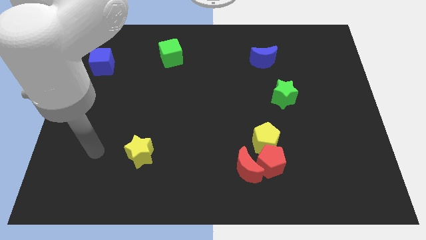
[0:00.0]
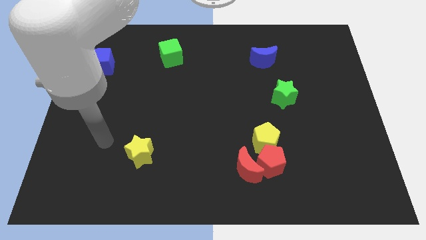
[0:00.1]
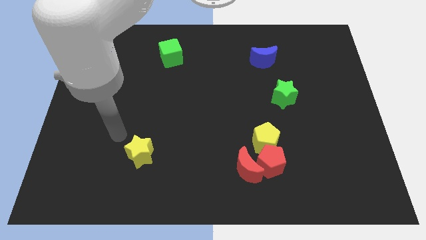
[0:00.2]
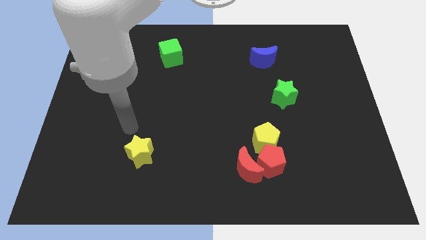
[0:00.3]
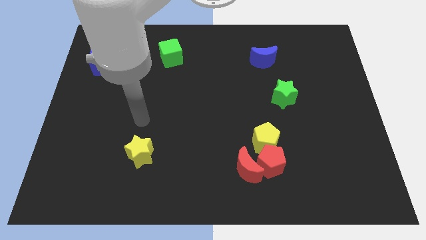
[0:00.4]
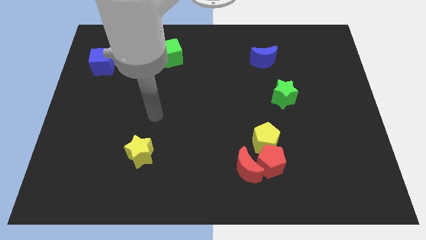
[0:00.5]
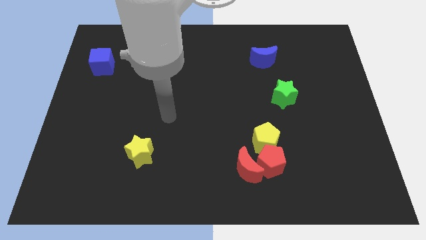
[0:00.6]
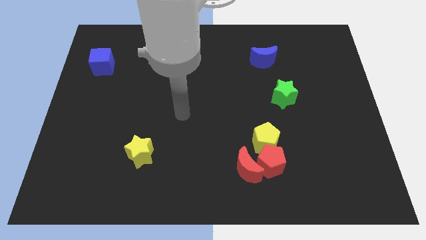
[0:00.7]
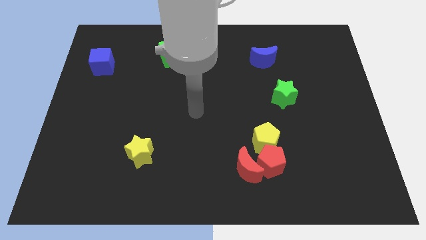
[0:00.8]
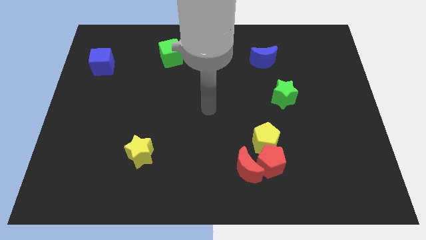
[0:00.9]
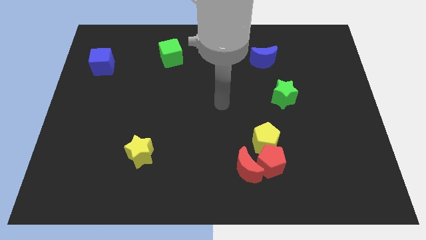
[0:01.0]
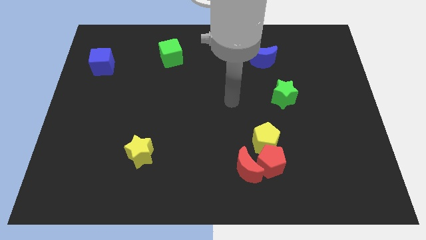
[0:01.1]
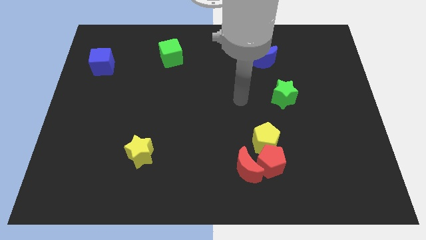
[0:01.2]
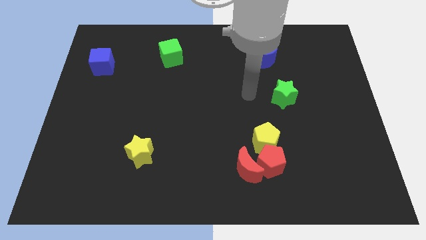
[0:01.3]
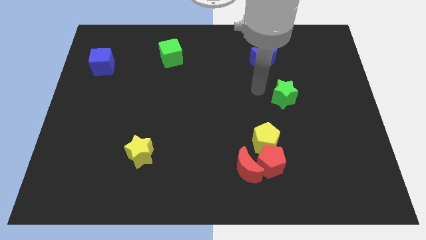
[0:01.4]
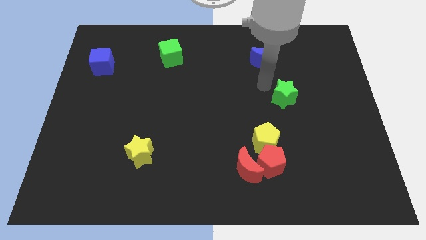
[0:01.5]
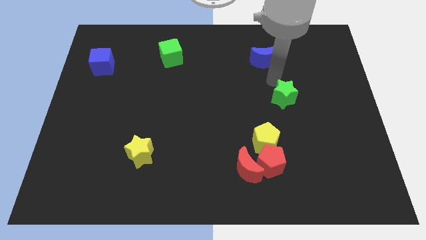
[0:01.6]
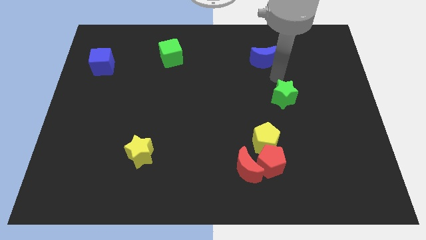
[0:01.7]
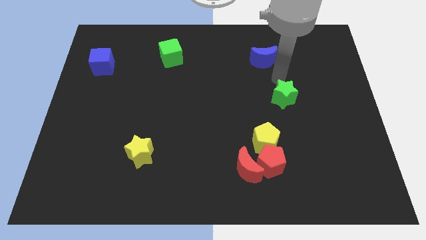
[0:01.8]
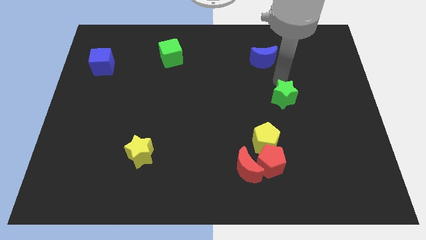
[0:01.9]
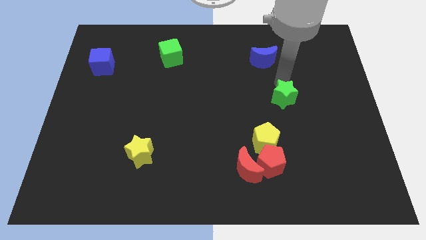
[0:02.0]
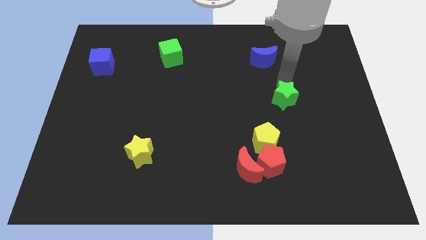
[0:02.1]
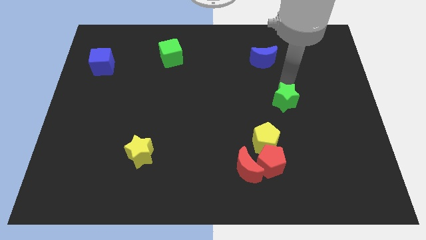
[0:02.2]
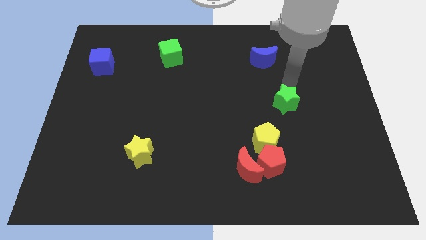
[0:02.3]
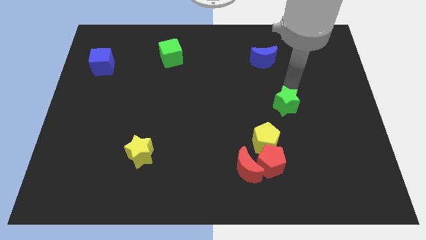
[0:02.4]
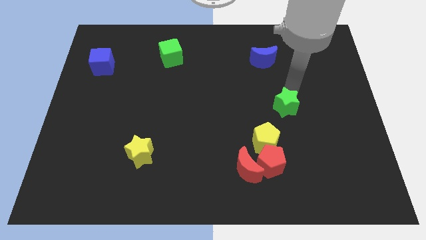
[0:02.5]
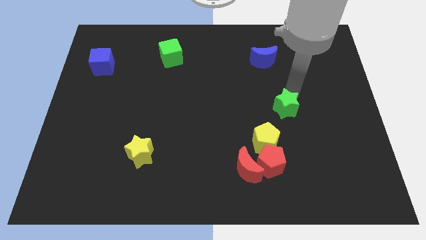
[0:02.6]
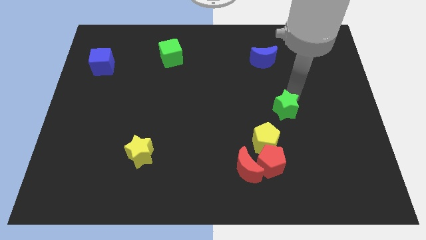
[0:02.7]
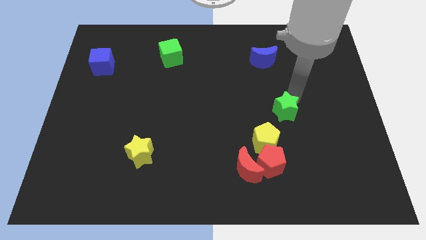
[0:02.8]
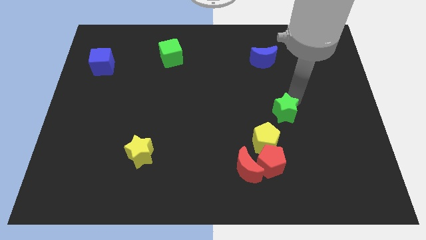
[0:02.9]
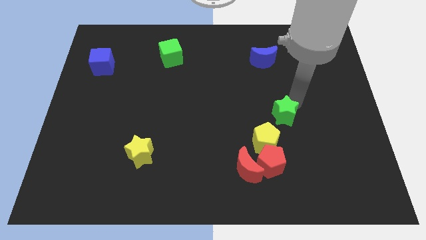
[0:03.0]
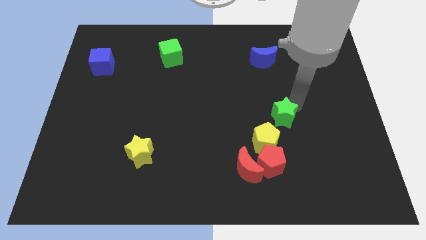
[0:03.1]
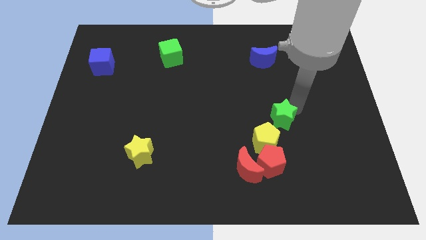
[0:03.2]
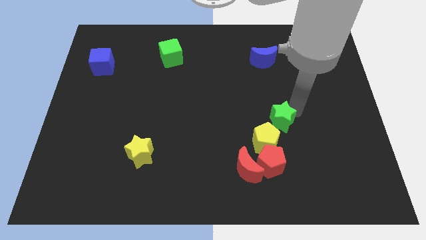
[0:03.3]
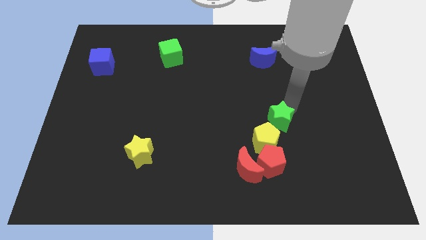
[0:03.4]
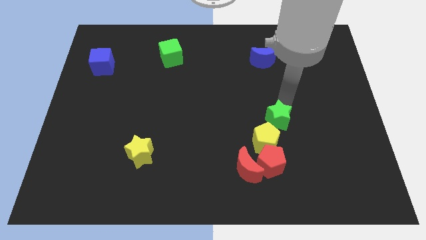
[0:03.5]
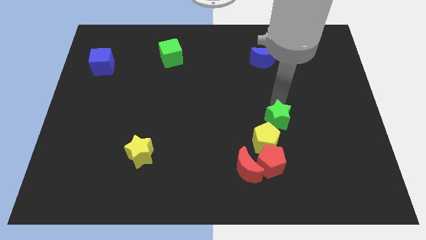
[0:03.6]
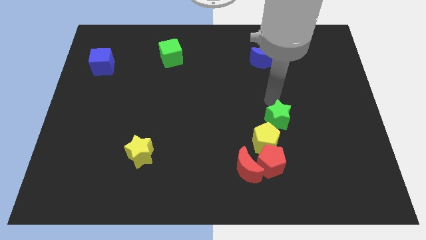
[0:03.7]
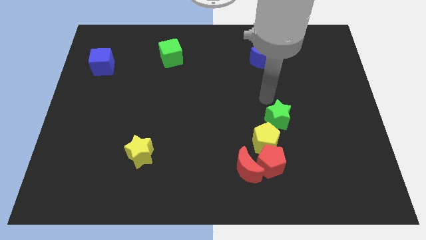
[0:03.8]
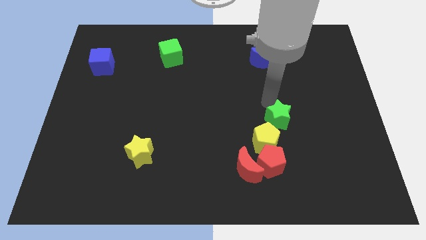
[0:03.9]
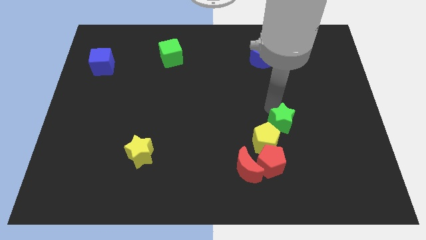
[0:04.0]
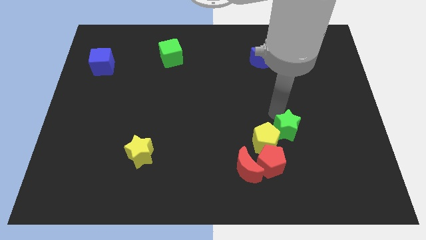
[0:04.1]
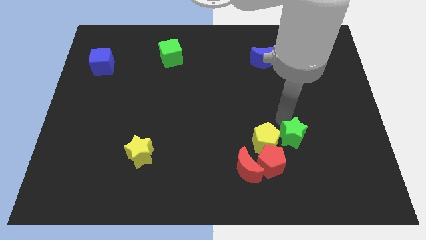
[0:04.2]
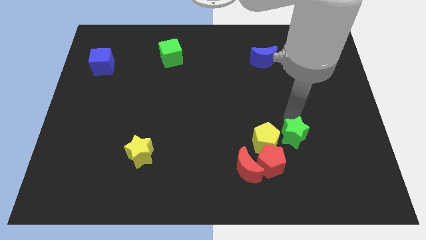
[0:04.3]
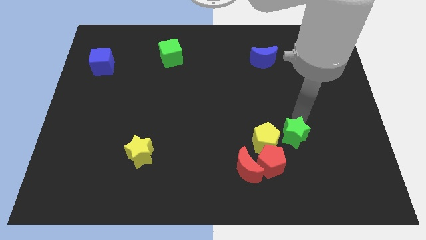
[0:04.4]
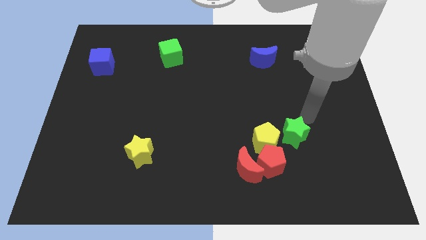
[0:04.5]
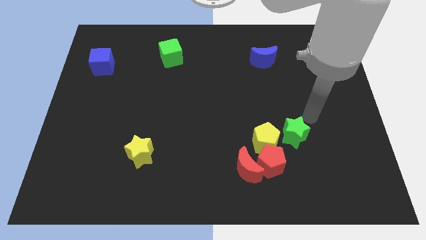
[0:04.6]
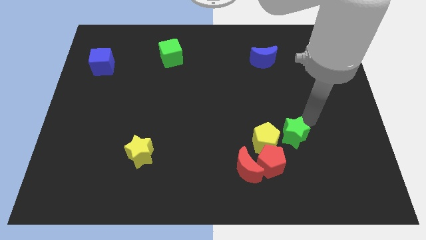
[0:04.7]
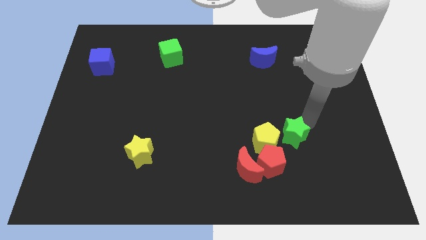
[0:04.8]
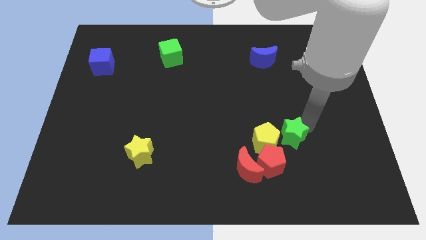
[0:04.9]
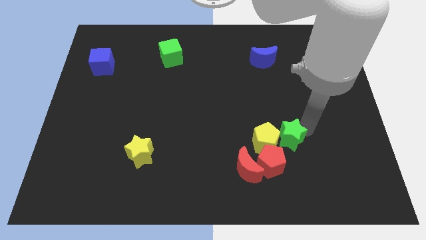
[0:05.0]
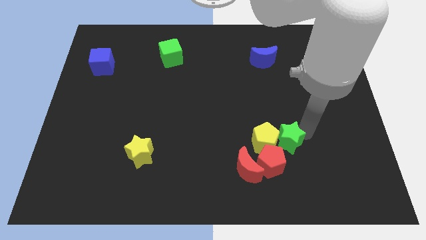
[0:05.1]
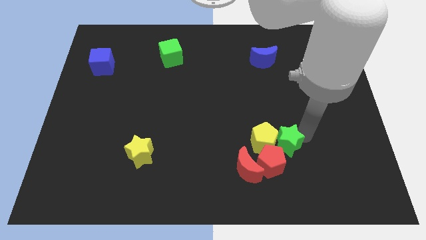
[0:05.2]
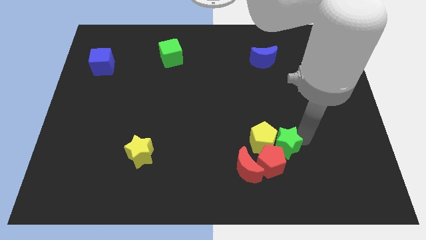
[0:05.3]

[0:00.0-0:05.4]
push the green star close to the red pentagon

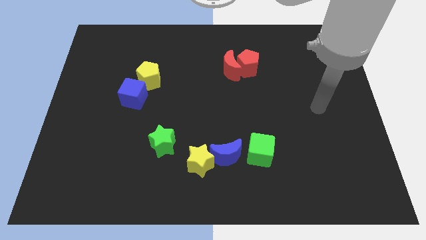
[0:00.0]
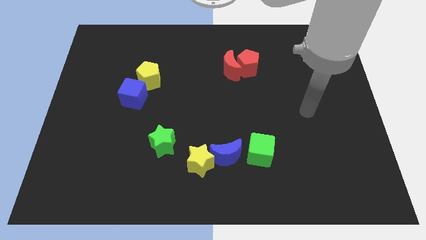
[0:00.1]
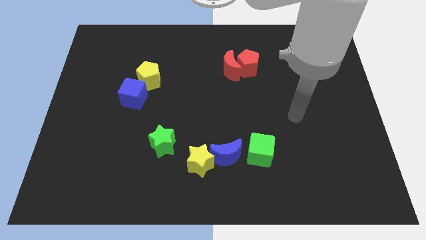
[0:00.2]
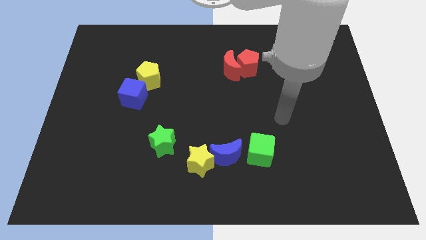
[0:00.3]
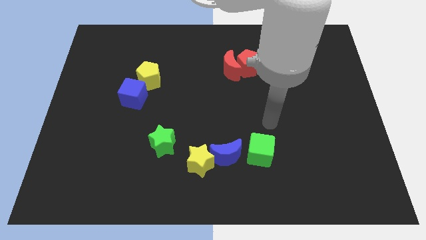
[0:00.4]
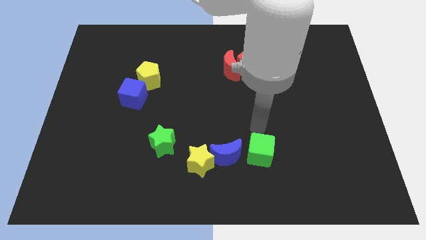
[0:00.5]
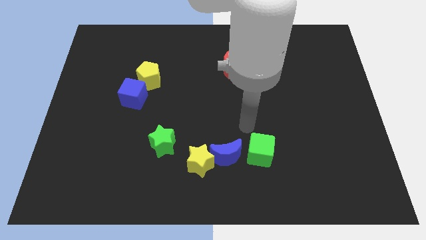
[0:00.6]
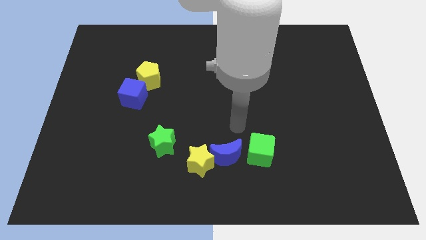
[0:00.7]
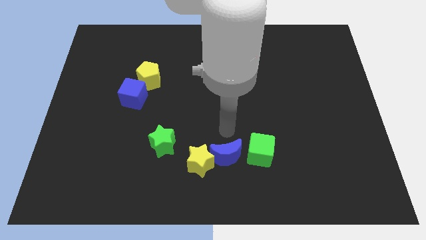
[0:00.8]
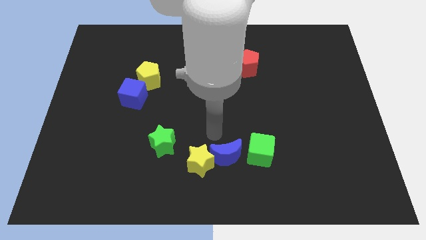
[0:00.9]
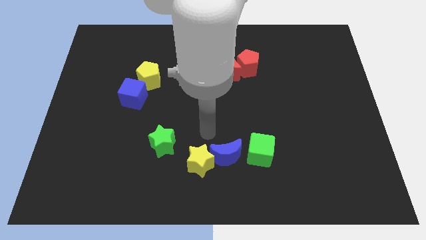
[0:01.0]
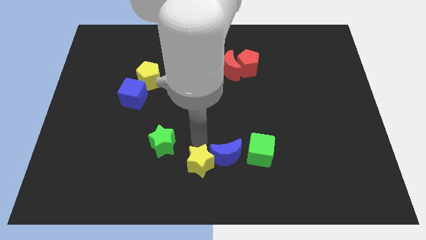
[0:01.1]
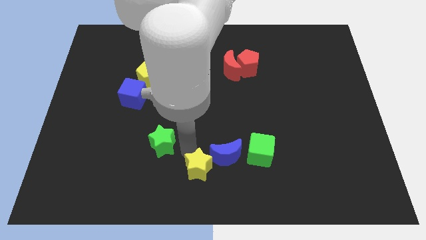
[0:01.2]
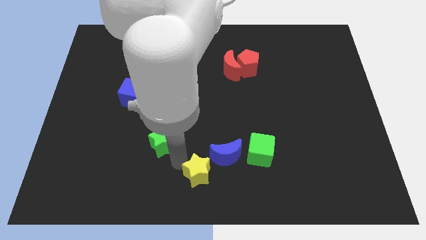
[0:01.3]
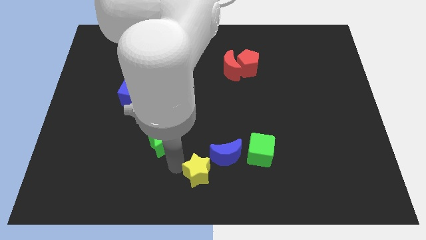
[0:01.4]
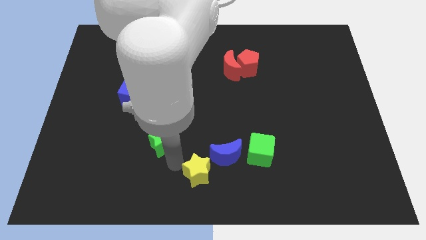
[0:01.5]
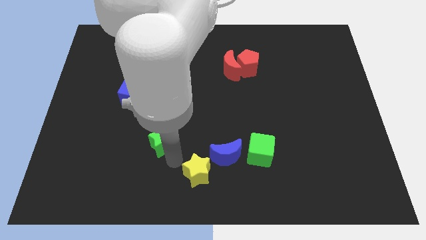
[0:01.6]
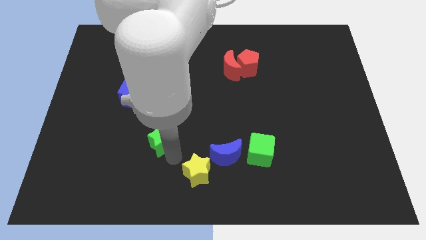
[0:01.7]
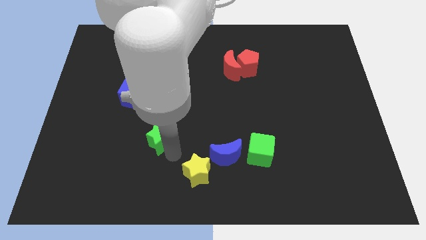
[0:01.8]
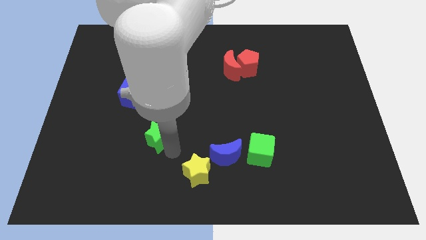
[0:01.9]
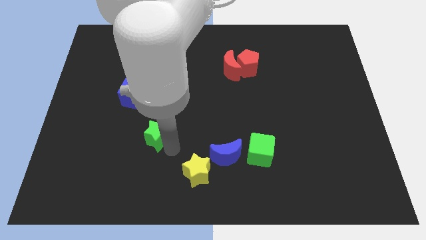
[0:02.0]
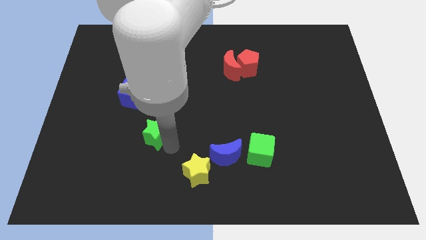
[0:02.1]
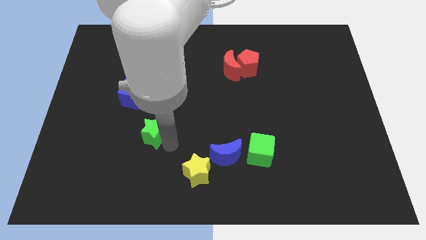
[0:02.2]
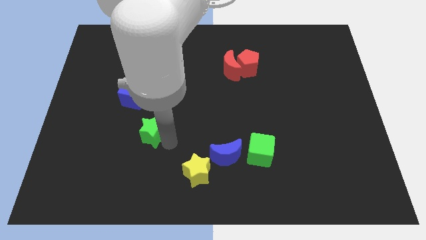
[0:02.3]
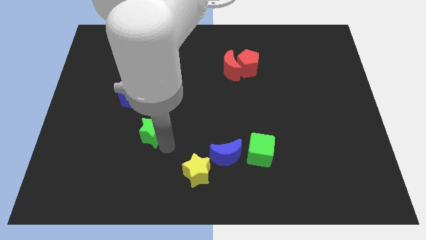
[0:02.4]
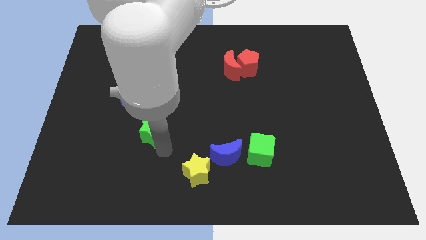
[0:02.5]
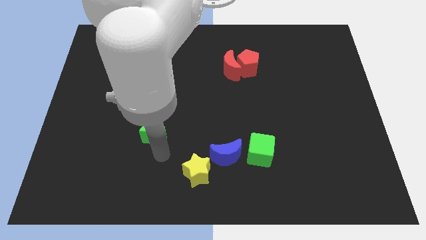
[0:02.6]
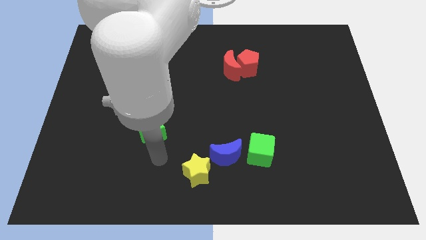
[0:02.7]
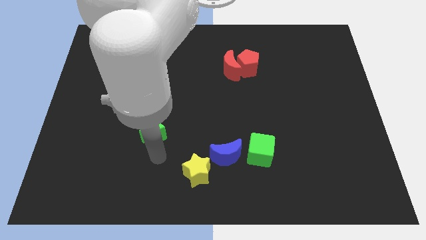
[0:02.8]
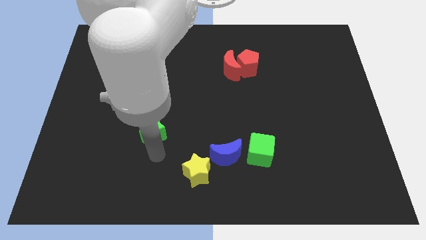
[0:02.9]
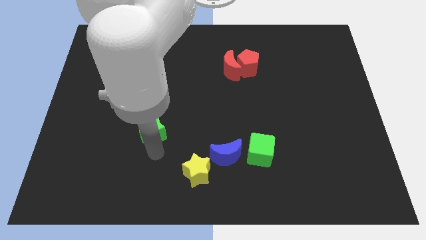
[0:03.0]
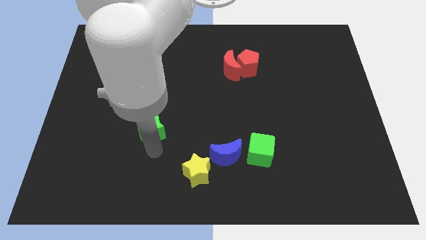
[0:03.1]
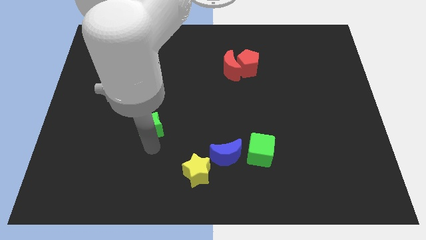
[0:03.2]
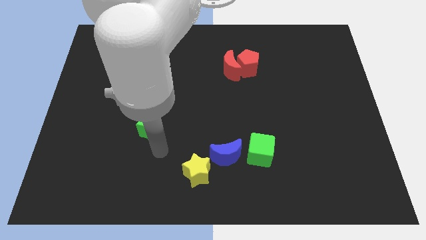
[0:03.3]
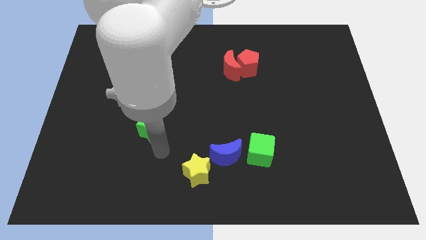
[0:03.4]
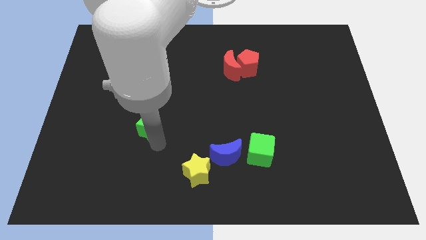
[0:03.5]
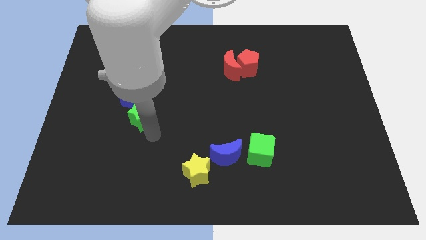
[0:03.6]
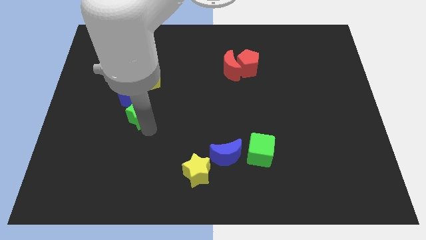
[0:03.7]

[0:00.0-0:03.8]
push the green star to the blue cube
